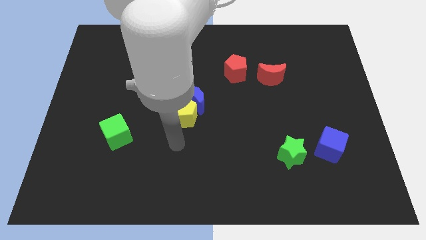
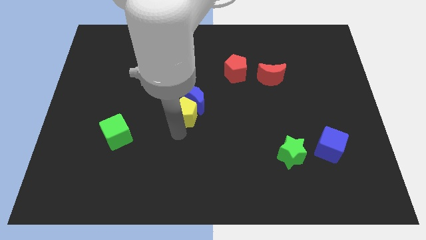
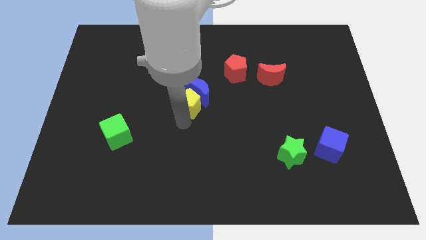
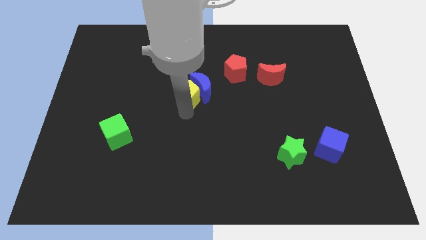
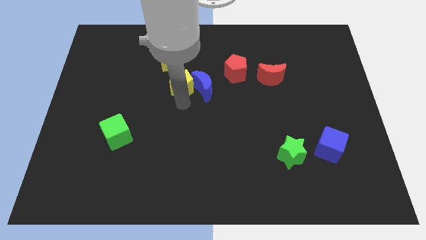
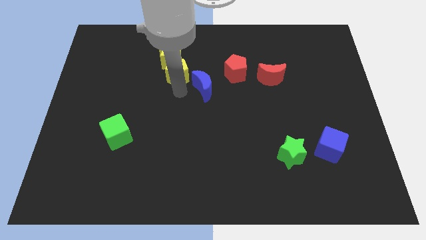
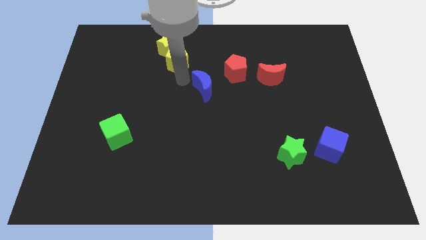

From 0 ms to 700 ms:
pull the blue moon apart from the yellow pentagon

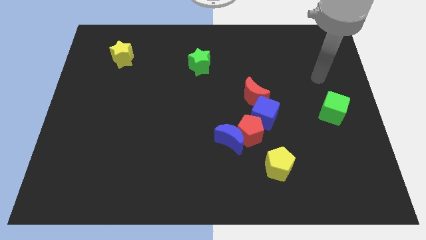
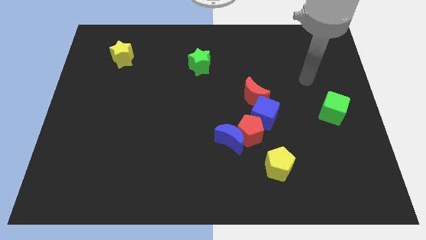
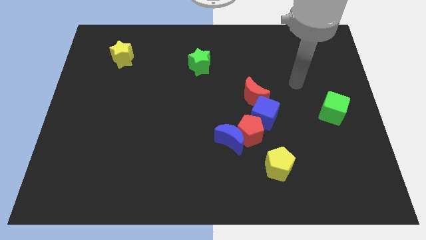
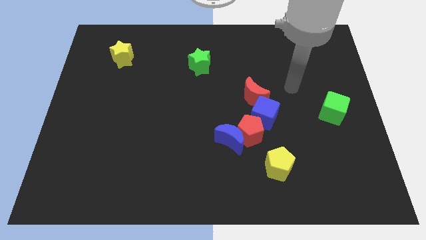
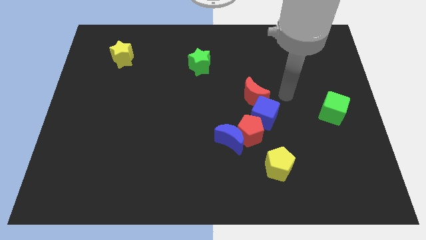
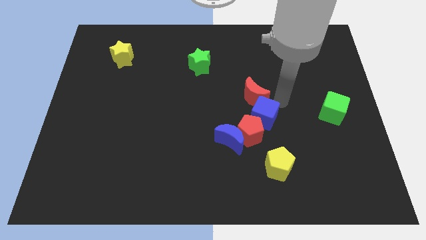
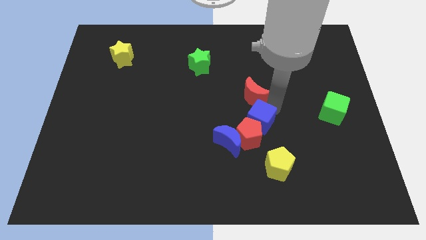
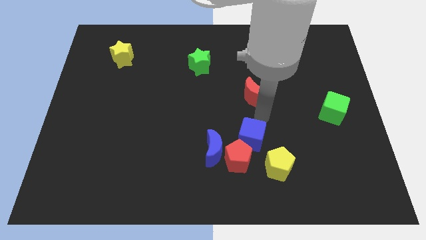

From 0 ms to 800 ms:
pull the red moon apart from the blue cube

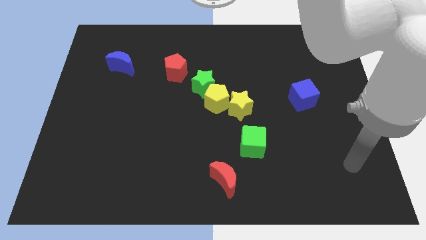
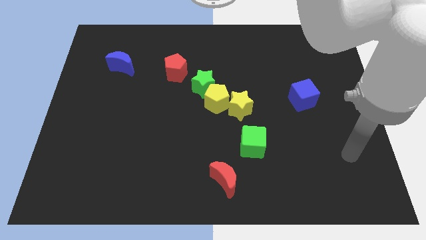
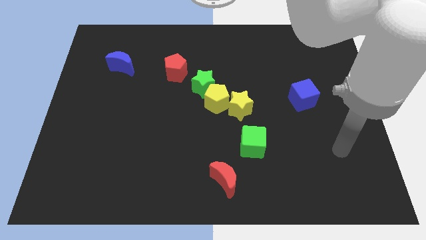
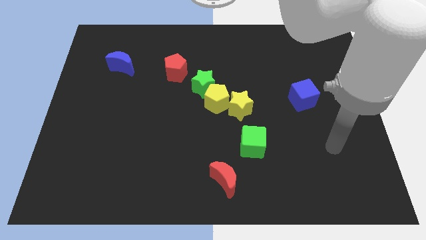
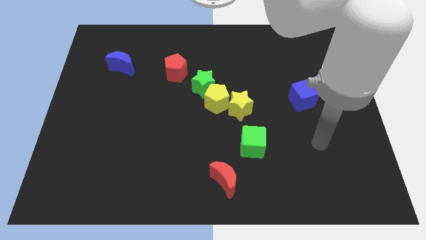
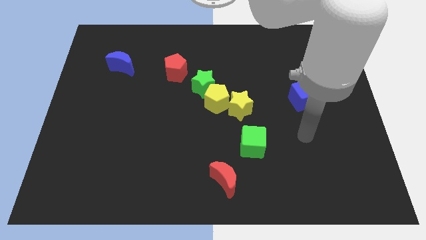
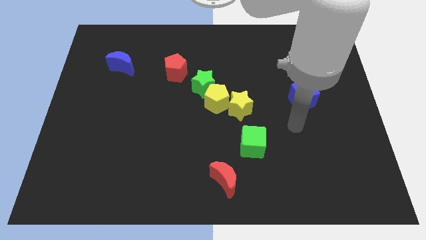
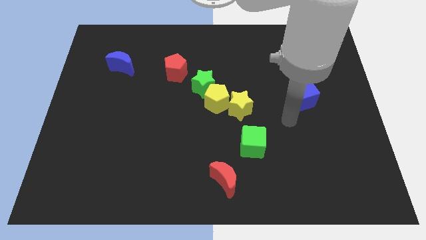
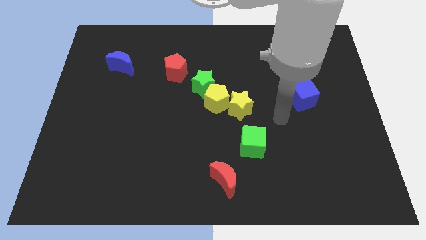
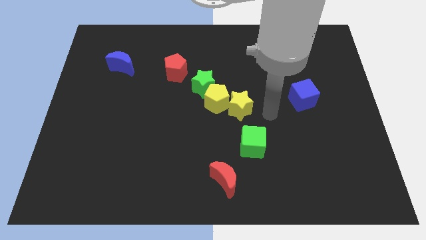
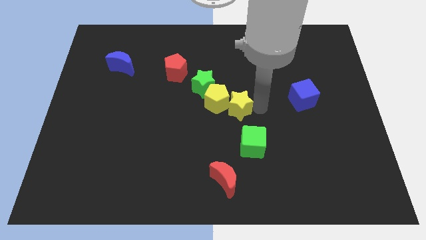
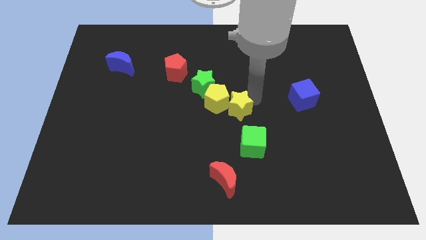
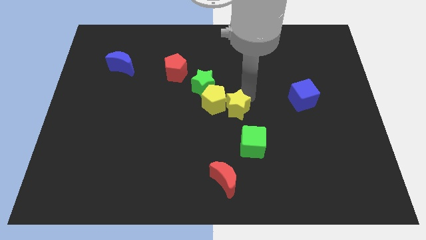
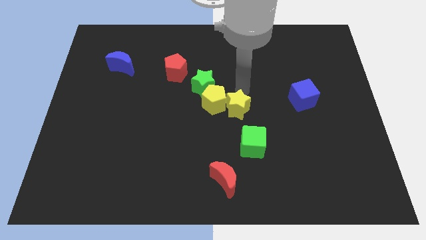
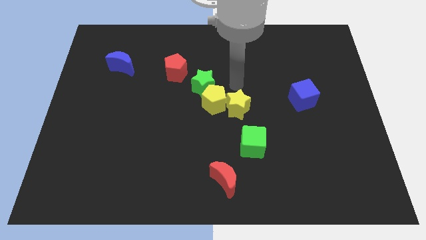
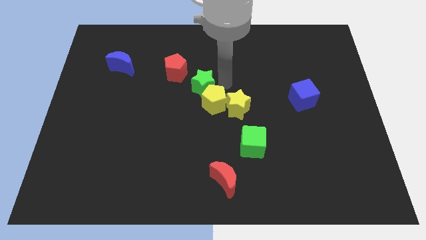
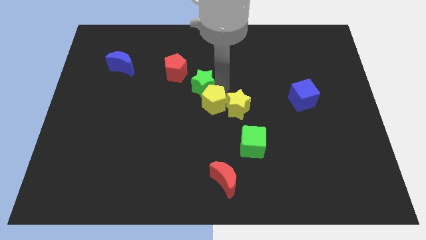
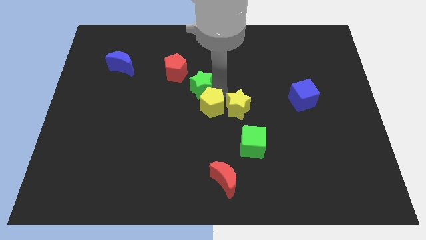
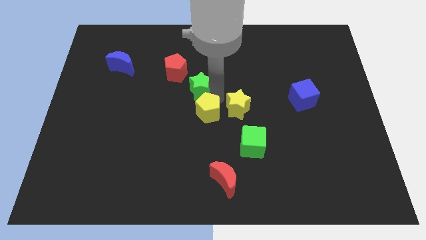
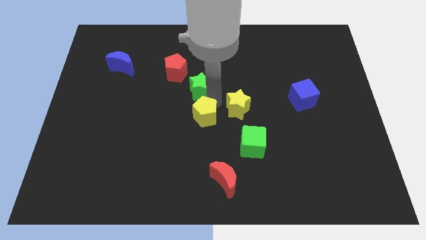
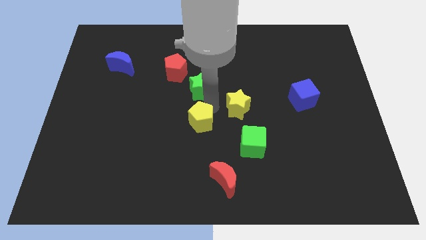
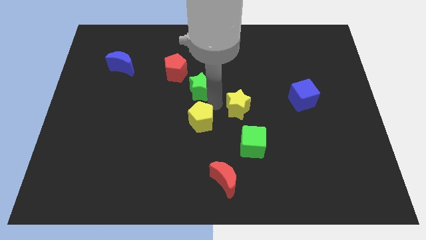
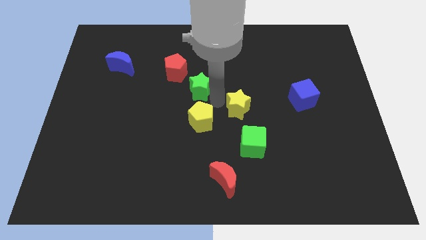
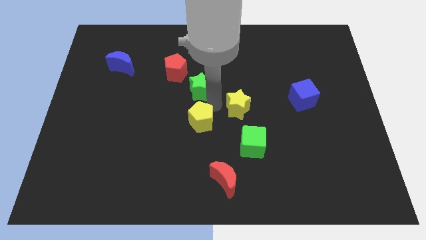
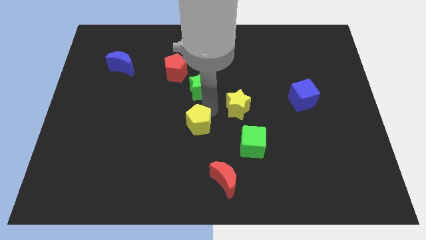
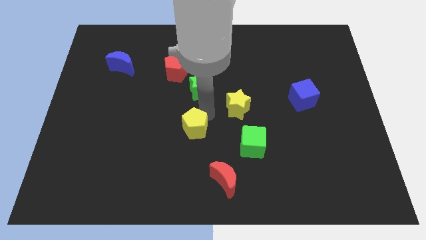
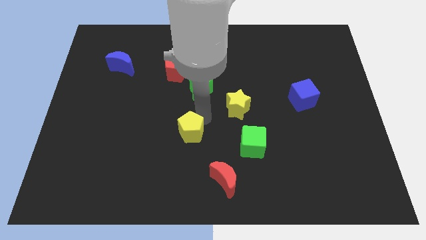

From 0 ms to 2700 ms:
pull the yellow pentagon apart from the yellow star and green star

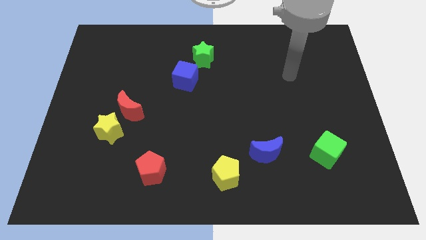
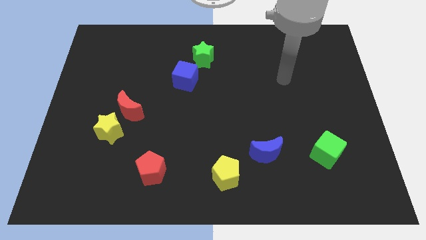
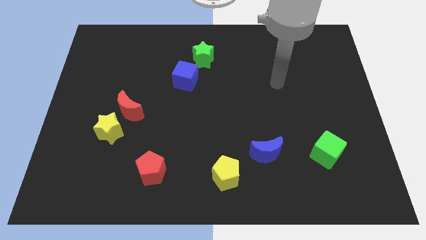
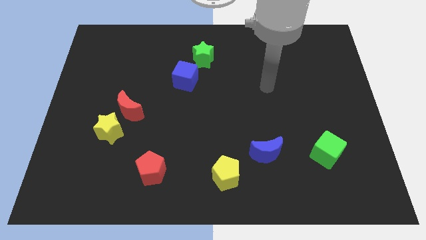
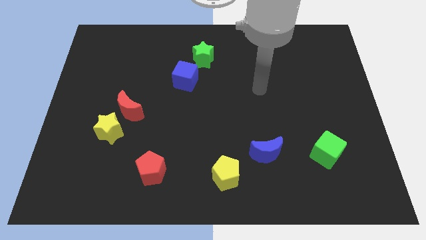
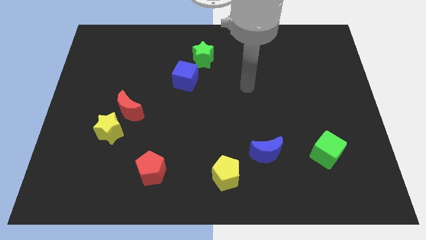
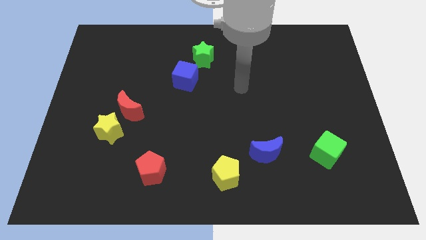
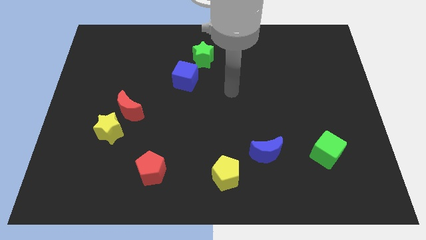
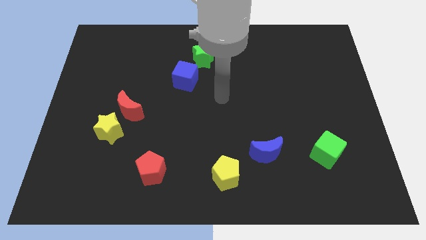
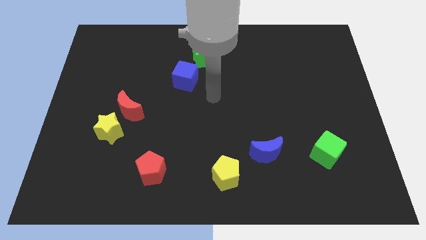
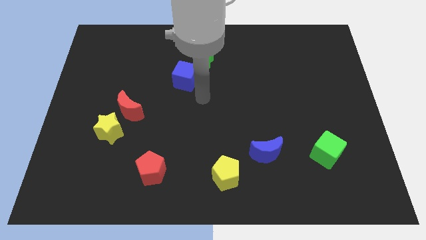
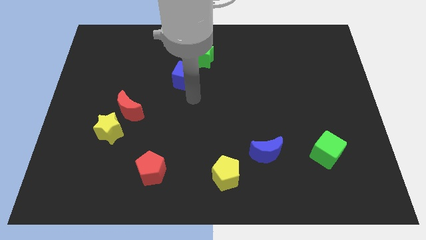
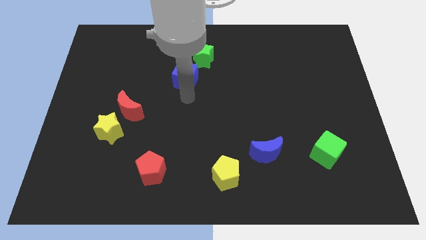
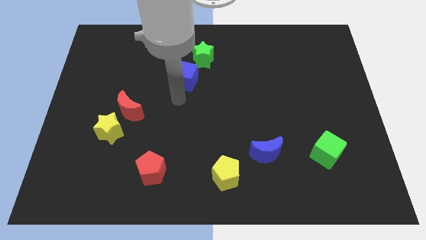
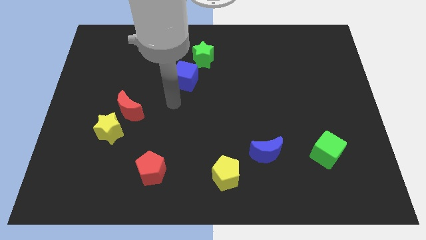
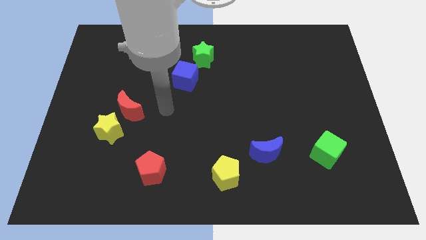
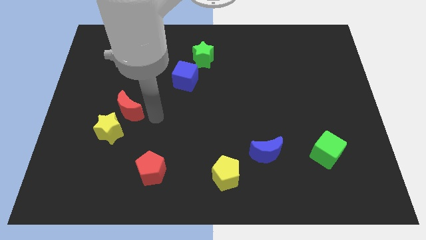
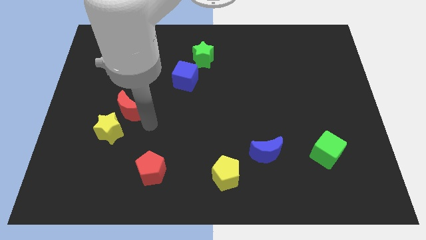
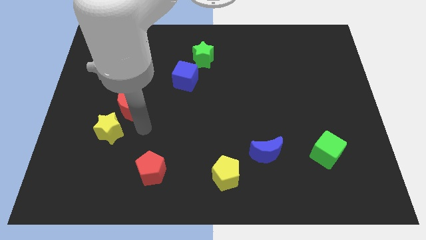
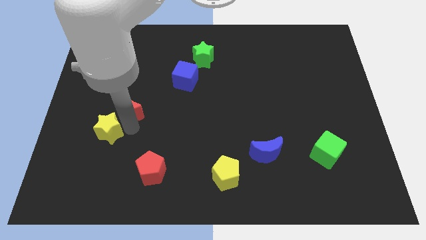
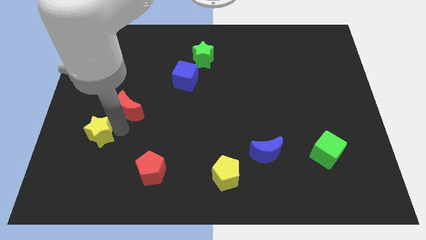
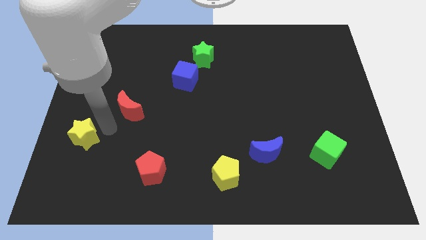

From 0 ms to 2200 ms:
pull the red moon apart from the yellow star

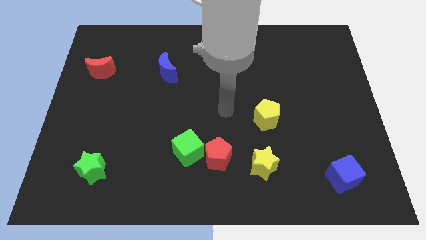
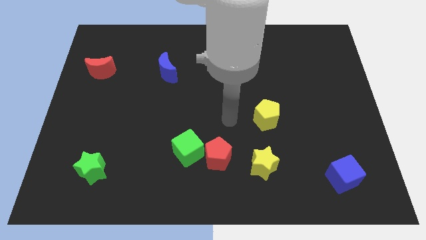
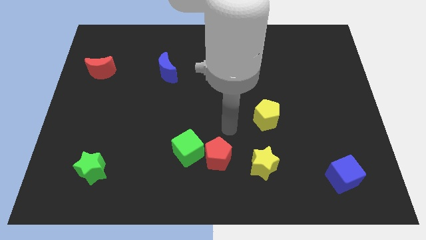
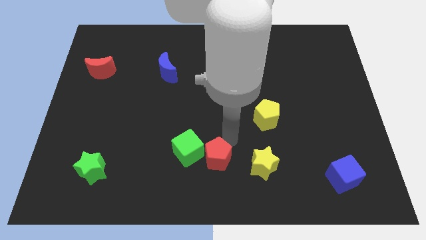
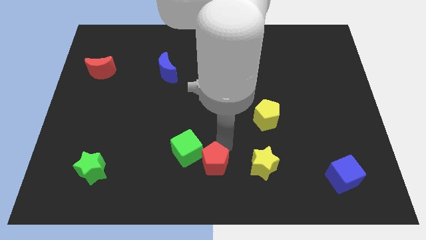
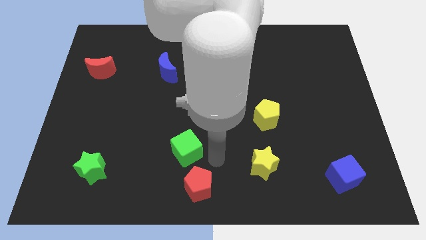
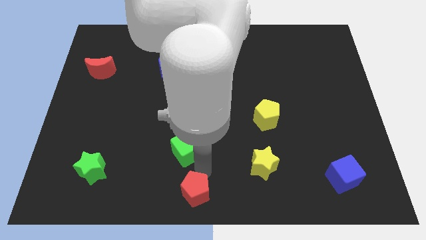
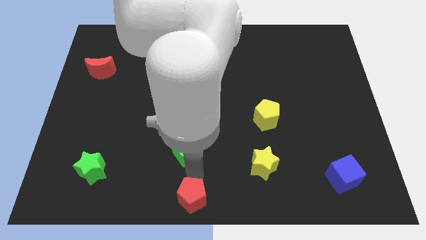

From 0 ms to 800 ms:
move the green cube away from the red pentagon

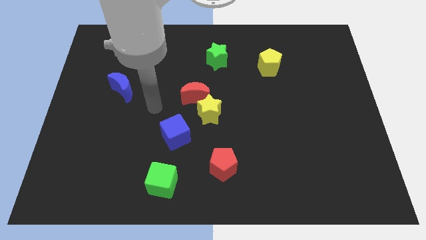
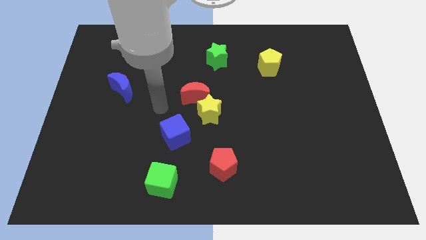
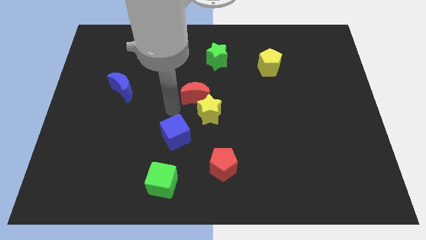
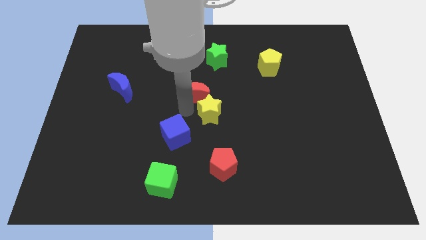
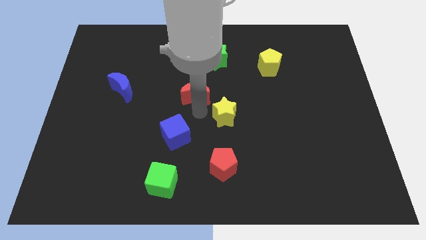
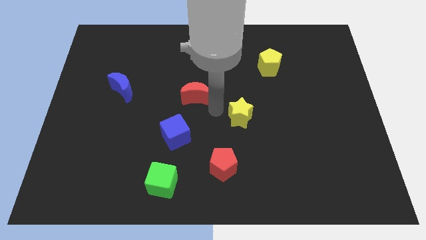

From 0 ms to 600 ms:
separate the red moon from the yellow star

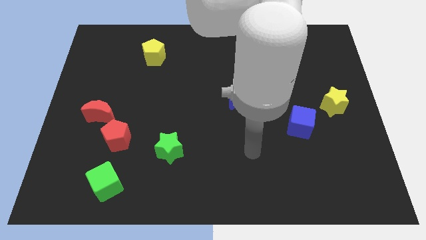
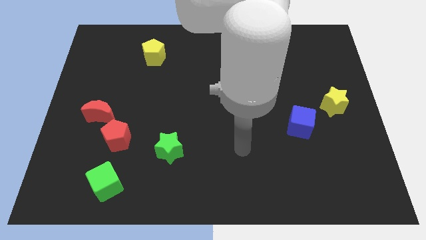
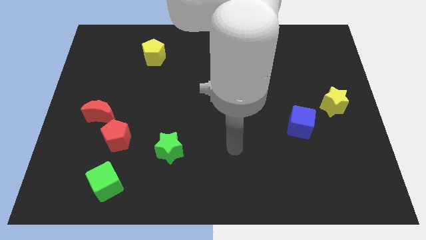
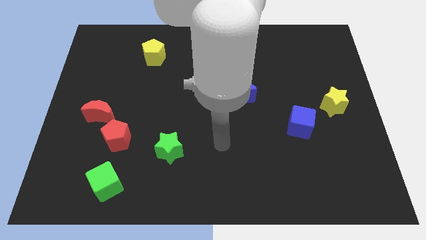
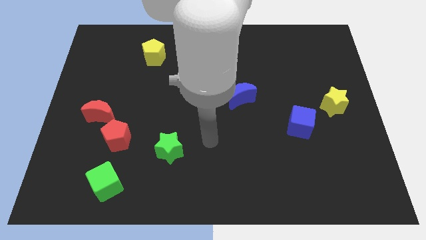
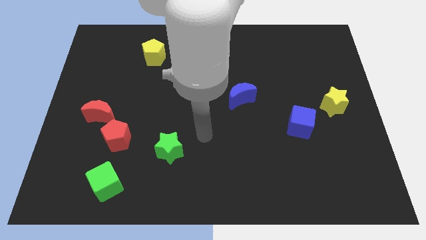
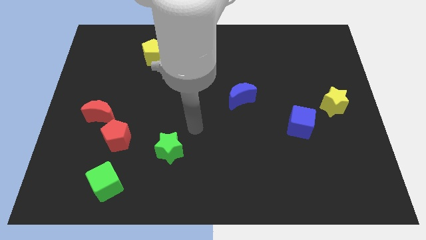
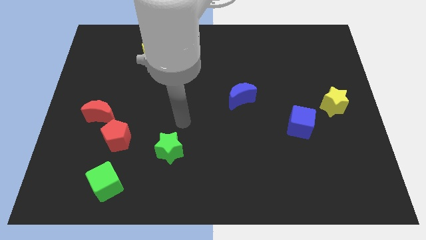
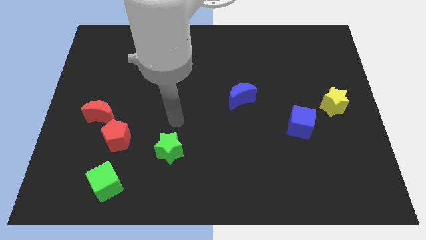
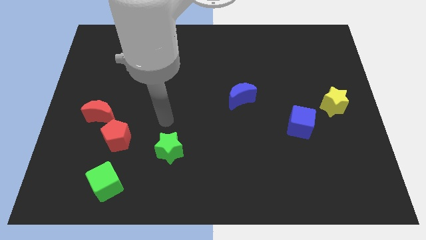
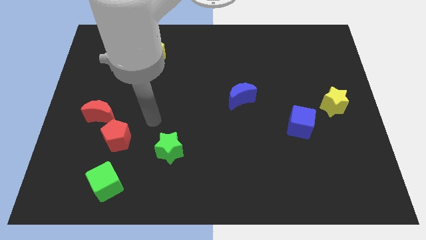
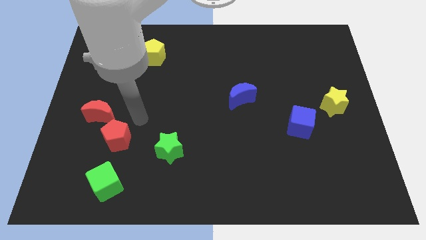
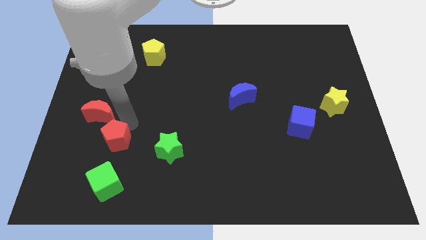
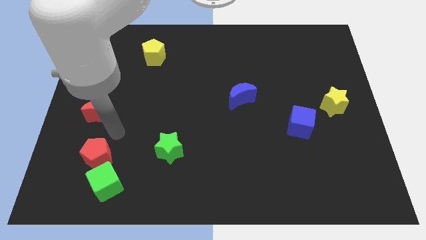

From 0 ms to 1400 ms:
pull the red moon apart from the red pentagon
